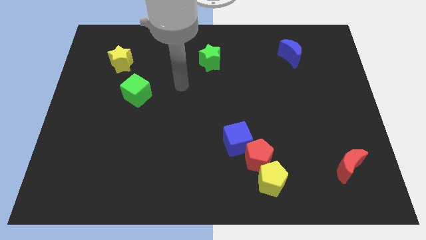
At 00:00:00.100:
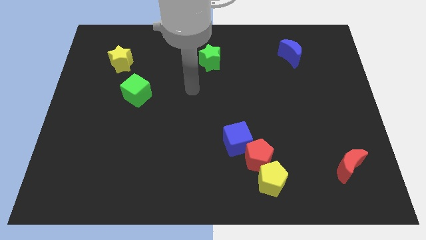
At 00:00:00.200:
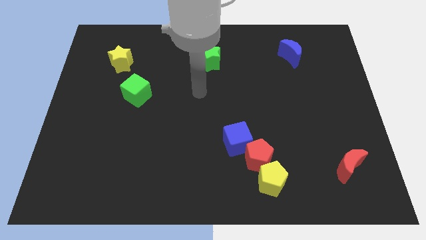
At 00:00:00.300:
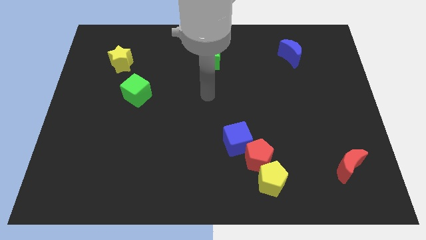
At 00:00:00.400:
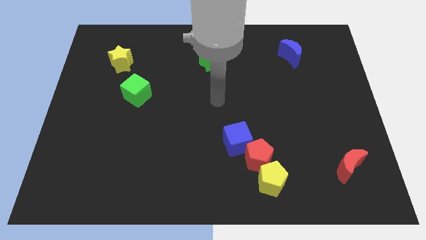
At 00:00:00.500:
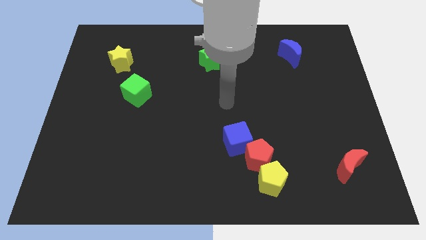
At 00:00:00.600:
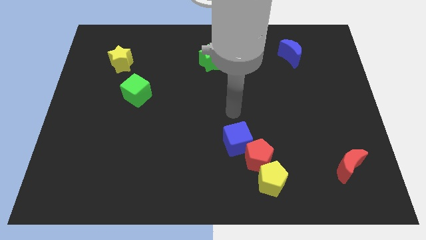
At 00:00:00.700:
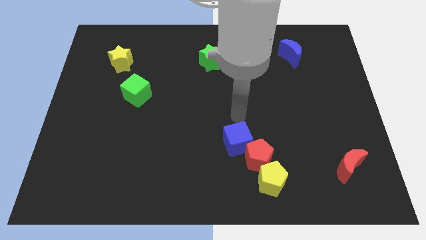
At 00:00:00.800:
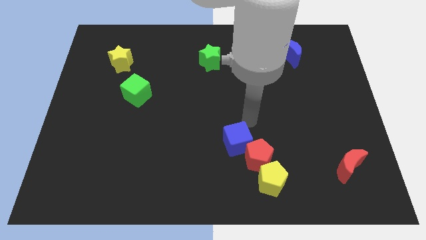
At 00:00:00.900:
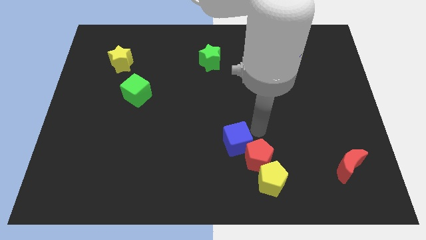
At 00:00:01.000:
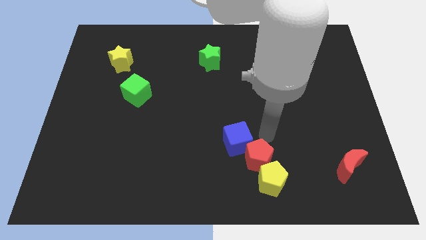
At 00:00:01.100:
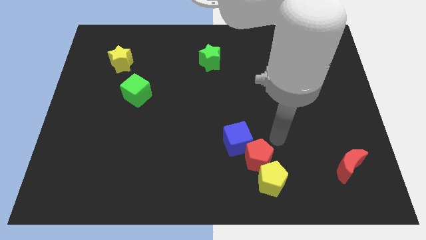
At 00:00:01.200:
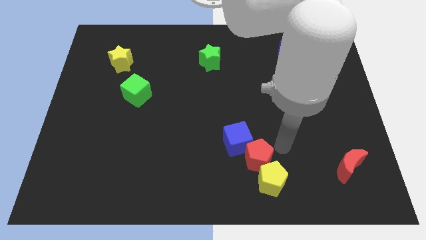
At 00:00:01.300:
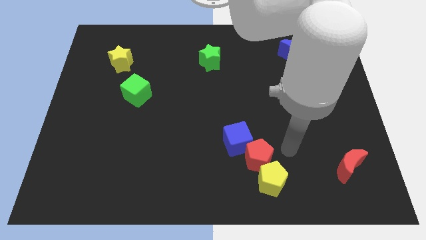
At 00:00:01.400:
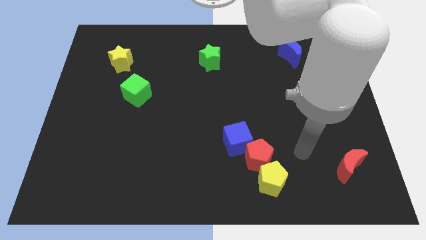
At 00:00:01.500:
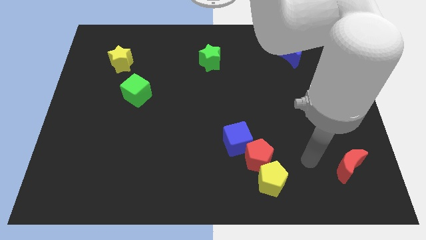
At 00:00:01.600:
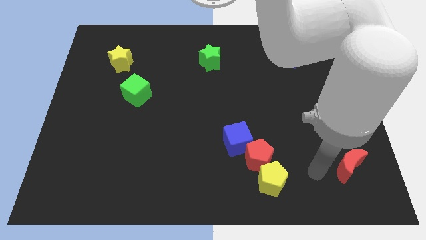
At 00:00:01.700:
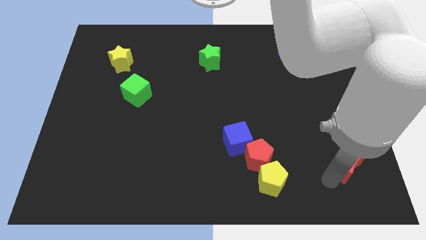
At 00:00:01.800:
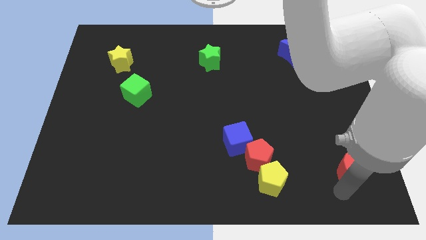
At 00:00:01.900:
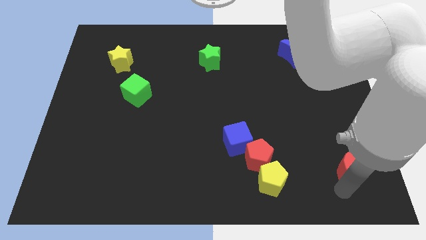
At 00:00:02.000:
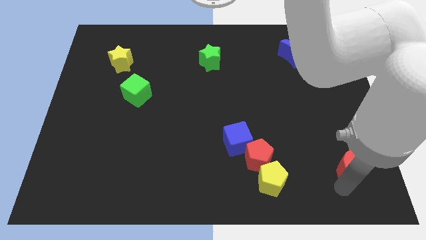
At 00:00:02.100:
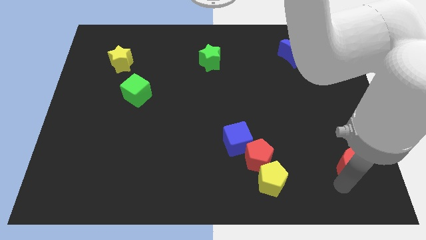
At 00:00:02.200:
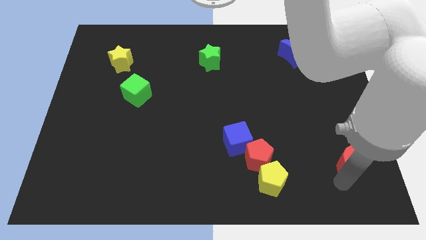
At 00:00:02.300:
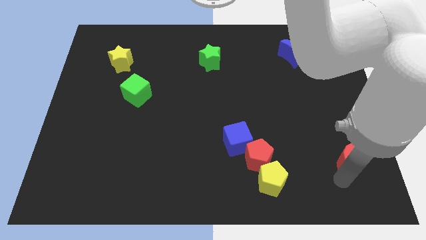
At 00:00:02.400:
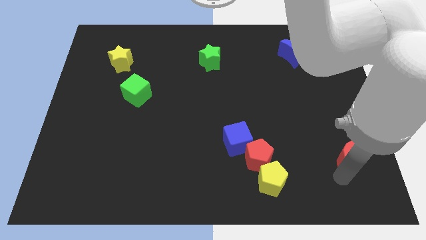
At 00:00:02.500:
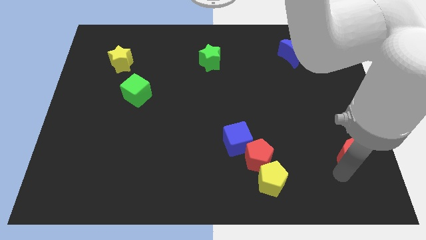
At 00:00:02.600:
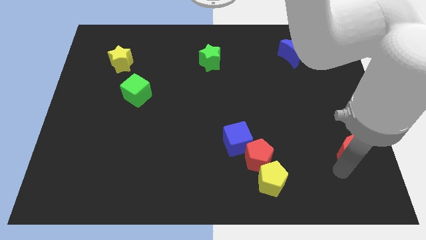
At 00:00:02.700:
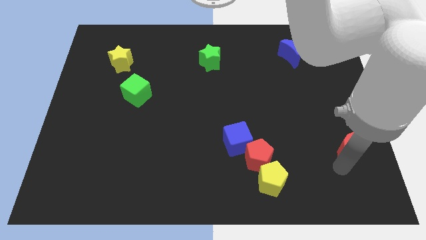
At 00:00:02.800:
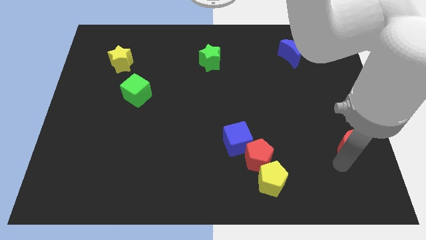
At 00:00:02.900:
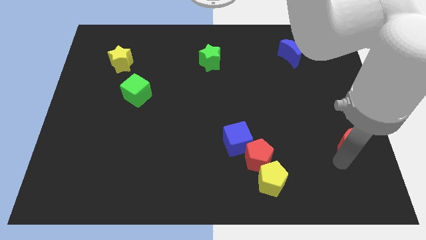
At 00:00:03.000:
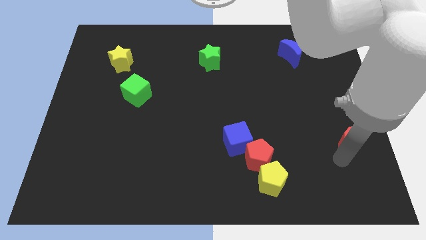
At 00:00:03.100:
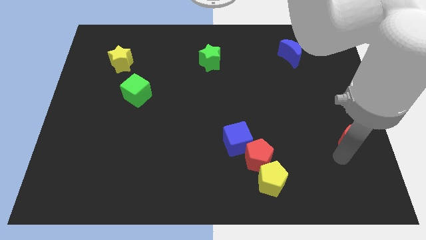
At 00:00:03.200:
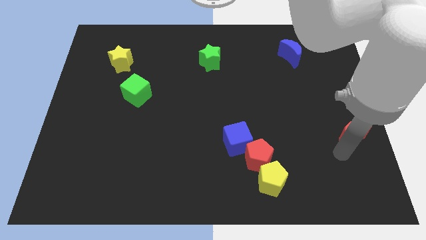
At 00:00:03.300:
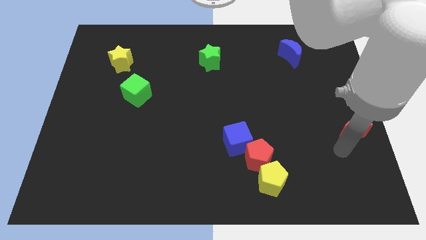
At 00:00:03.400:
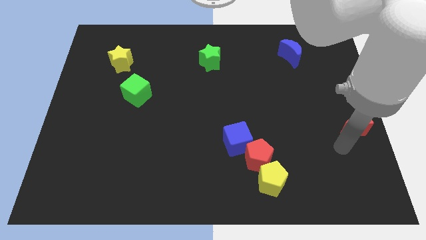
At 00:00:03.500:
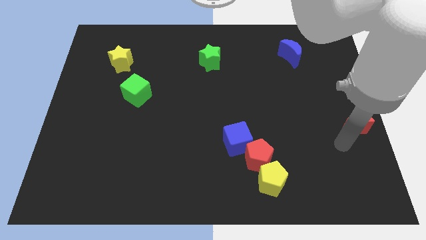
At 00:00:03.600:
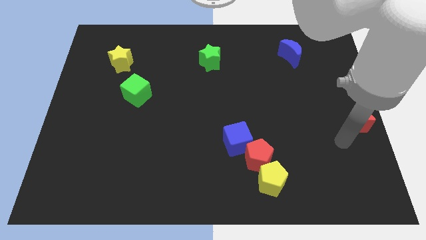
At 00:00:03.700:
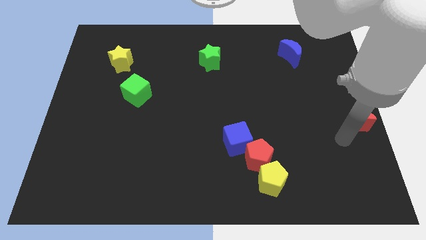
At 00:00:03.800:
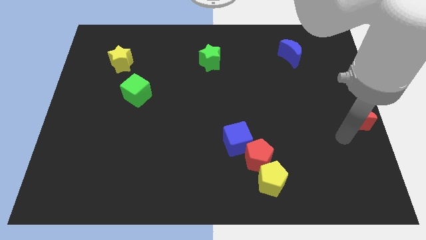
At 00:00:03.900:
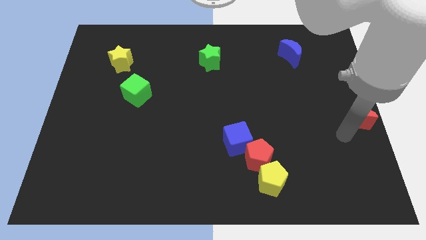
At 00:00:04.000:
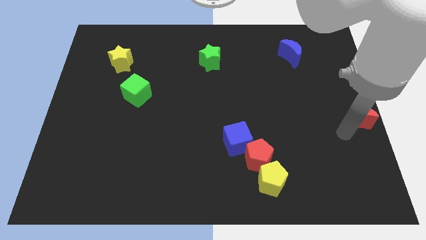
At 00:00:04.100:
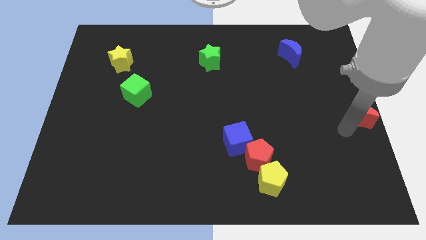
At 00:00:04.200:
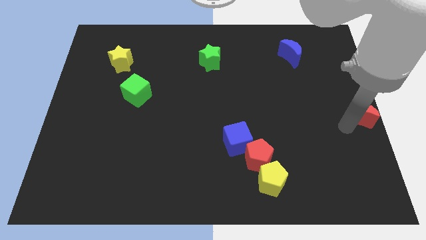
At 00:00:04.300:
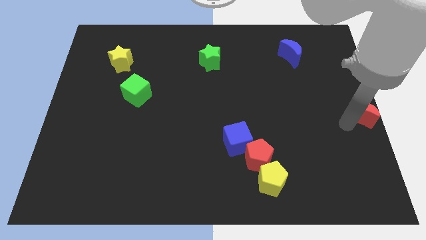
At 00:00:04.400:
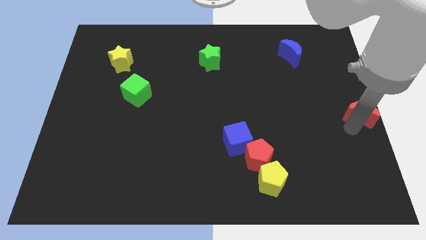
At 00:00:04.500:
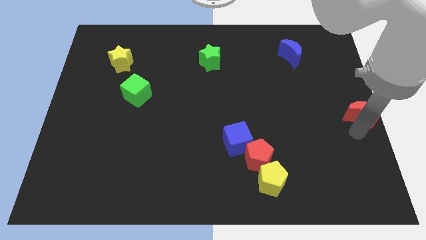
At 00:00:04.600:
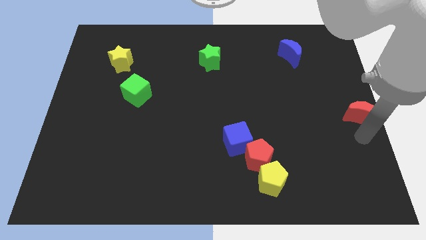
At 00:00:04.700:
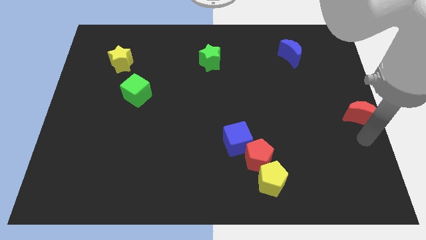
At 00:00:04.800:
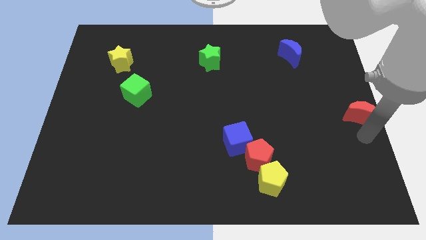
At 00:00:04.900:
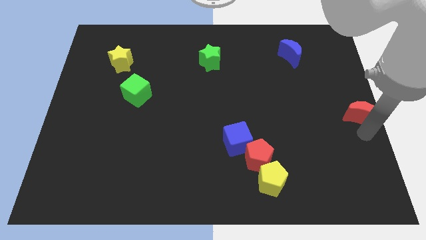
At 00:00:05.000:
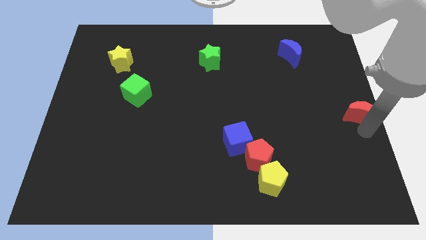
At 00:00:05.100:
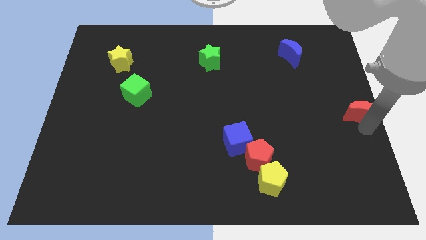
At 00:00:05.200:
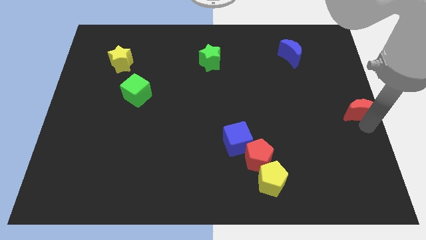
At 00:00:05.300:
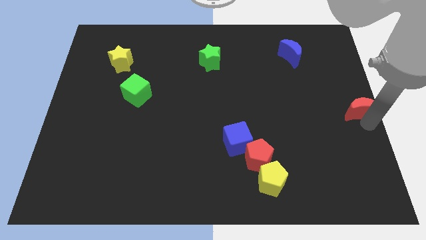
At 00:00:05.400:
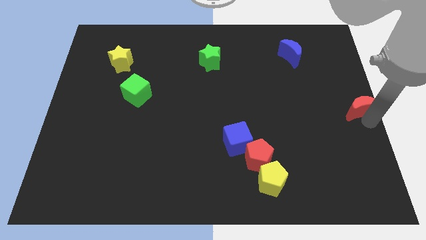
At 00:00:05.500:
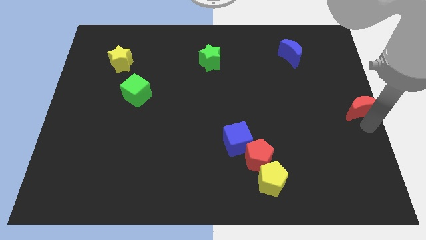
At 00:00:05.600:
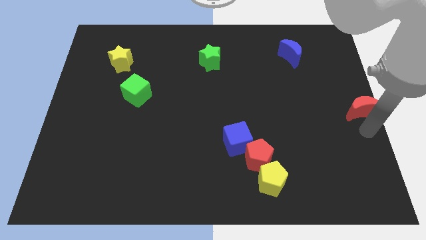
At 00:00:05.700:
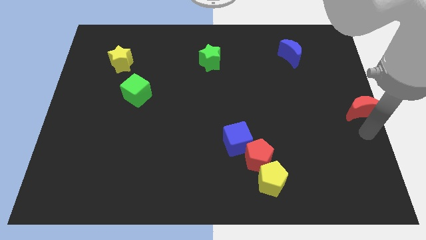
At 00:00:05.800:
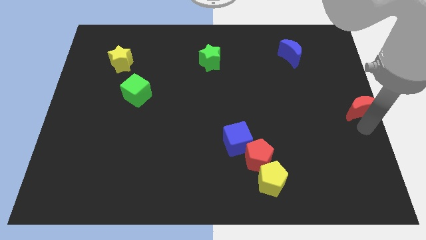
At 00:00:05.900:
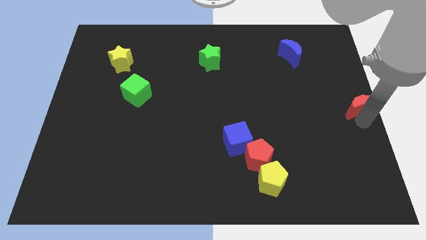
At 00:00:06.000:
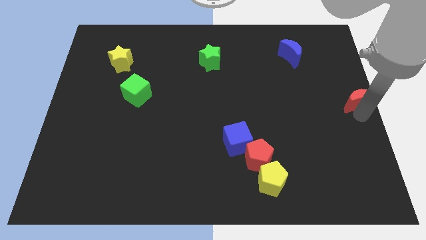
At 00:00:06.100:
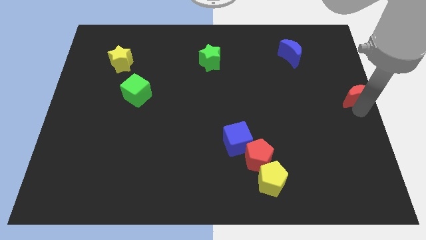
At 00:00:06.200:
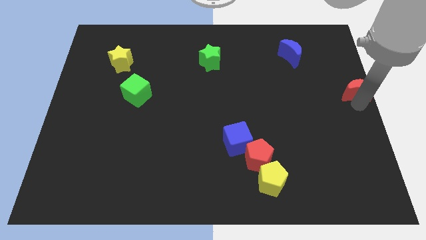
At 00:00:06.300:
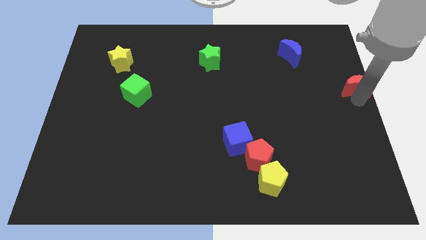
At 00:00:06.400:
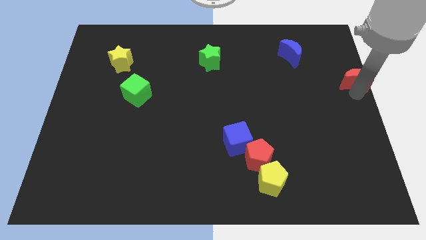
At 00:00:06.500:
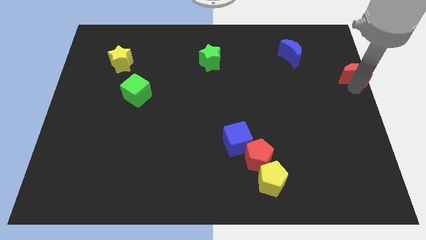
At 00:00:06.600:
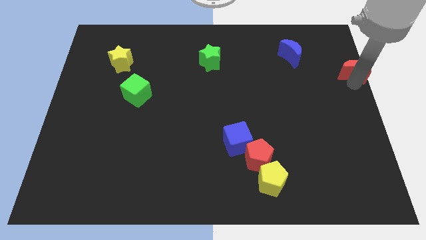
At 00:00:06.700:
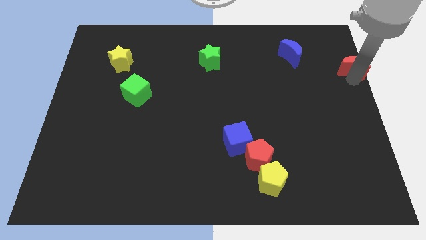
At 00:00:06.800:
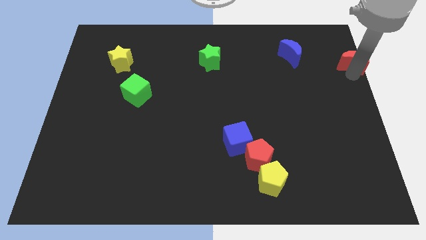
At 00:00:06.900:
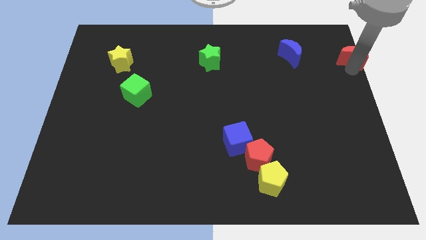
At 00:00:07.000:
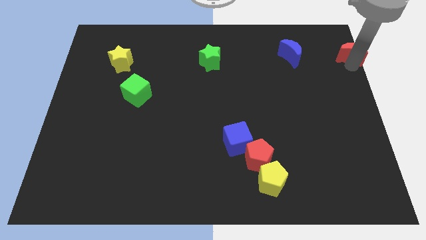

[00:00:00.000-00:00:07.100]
move the red moon to the upper right corner
